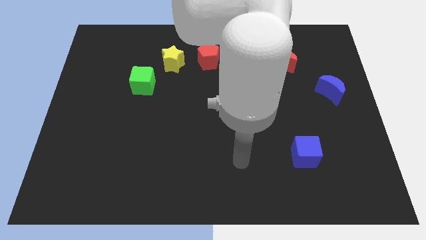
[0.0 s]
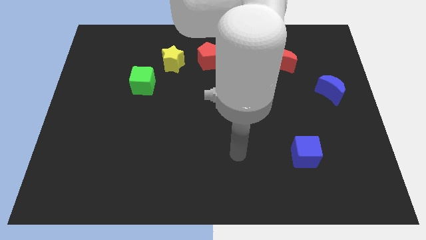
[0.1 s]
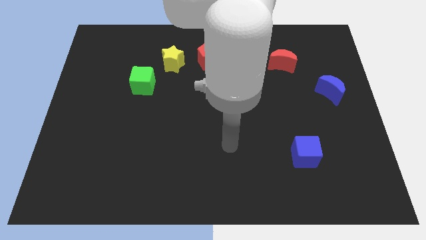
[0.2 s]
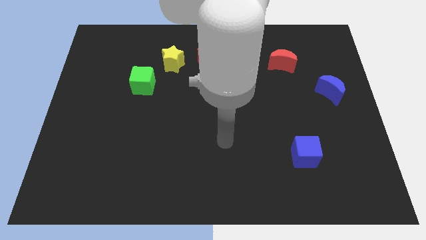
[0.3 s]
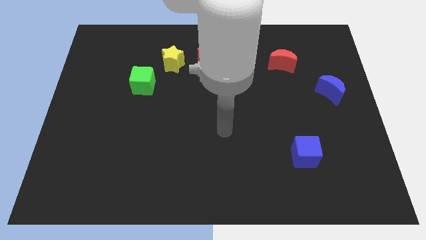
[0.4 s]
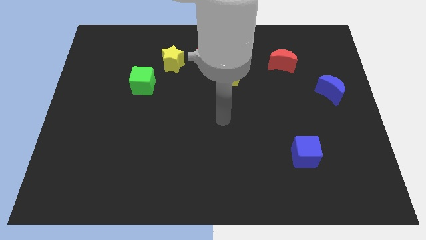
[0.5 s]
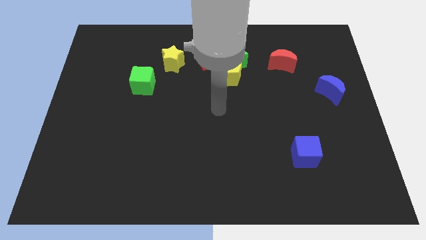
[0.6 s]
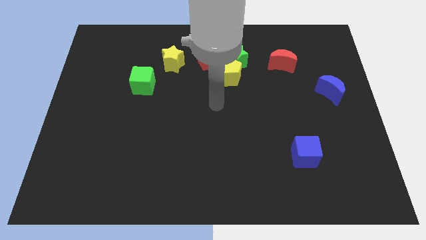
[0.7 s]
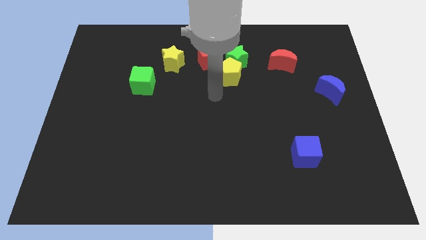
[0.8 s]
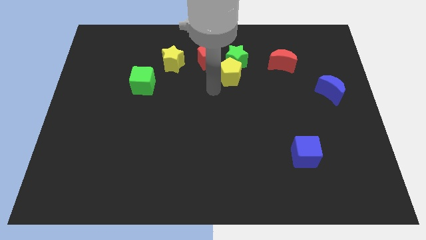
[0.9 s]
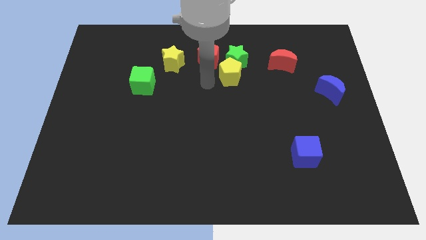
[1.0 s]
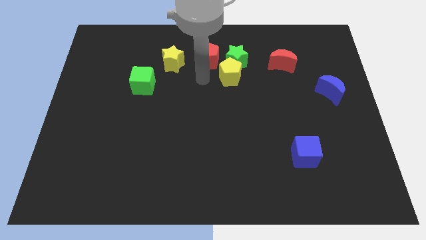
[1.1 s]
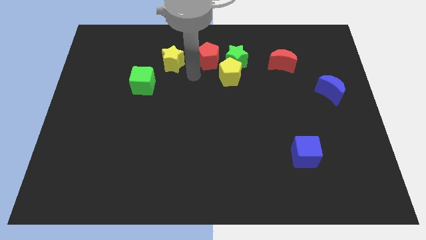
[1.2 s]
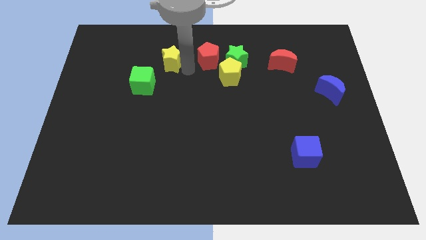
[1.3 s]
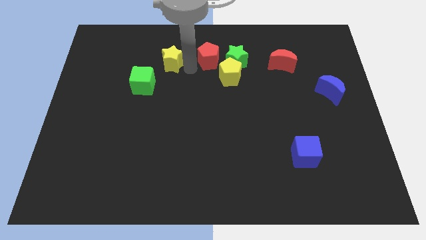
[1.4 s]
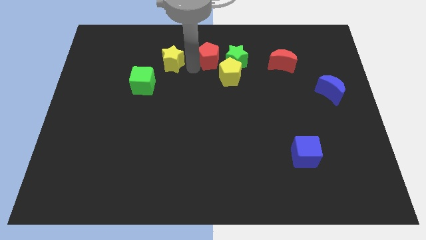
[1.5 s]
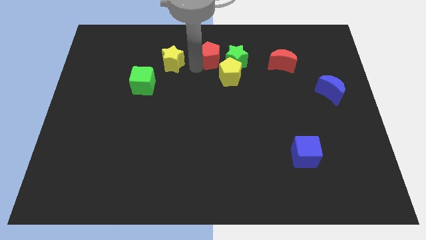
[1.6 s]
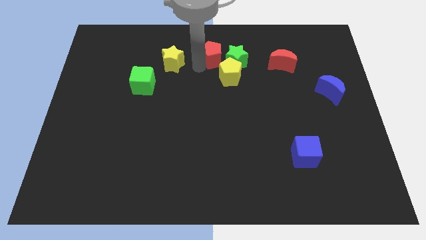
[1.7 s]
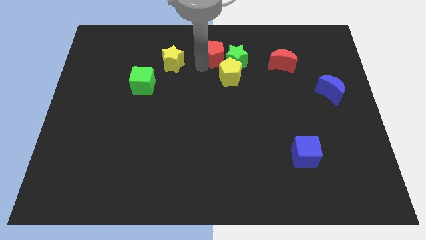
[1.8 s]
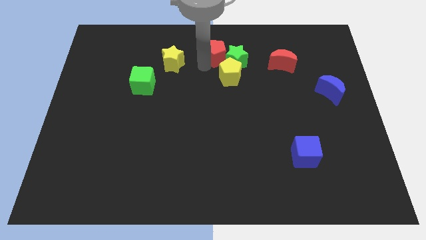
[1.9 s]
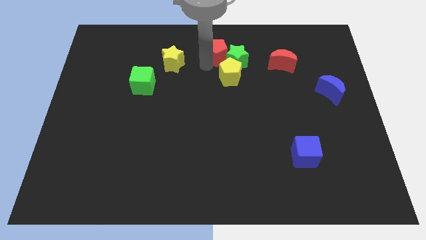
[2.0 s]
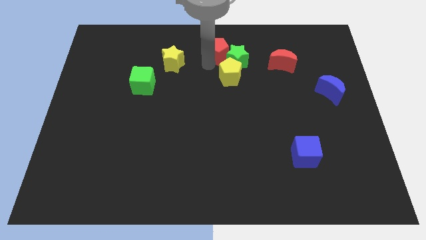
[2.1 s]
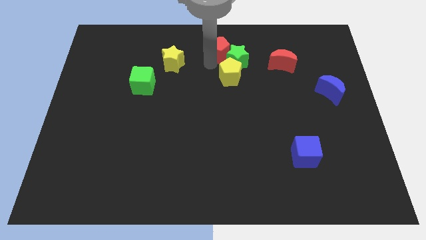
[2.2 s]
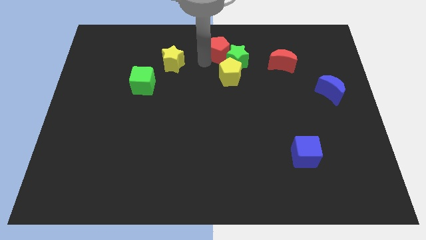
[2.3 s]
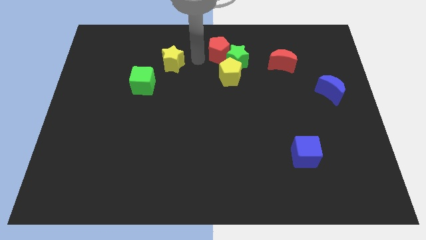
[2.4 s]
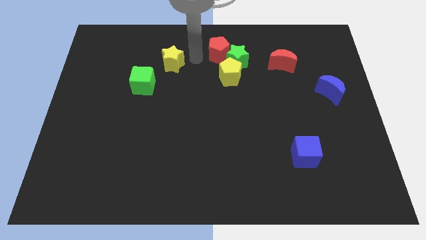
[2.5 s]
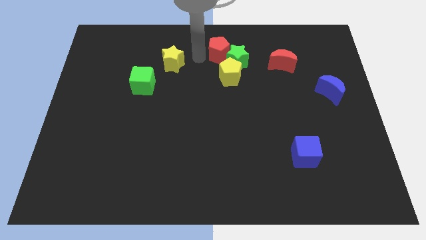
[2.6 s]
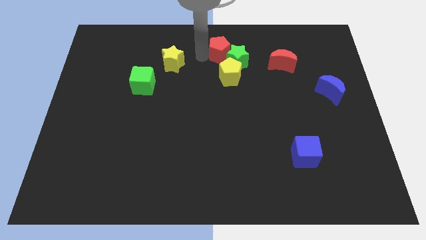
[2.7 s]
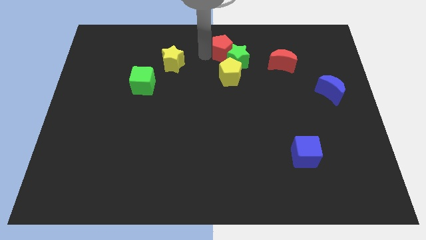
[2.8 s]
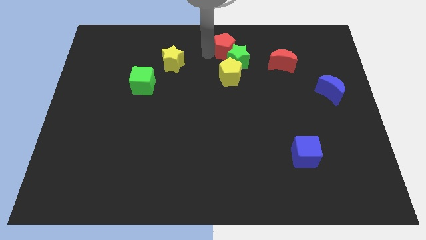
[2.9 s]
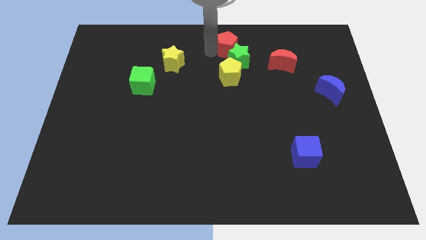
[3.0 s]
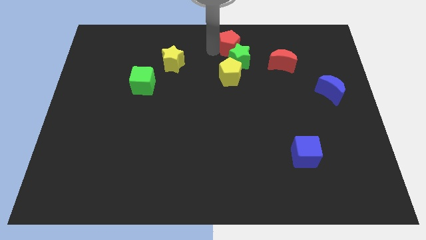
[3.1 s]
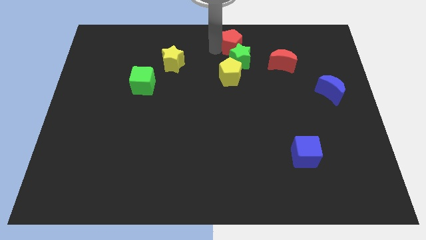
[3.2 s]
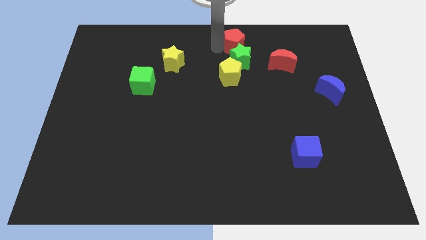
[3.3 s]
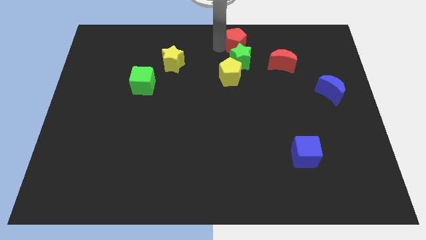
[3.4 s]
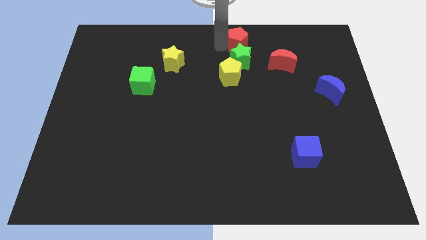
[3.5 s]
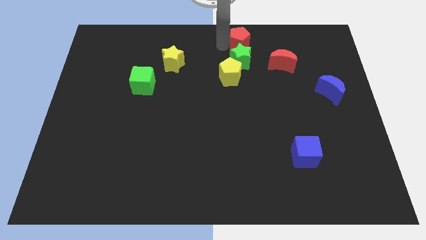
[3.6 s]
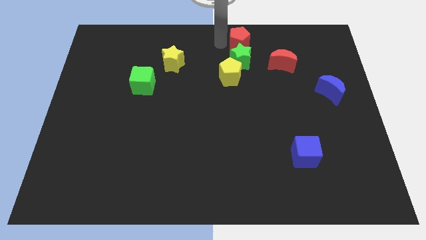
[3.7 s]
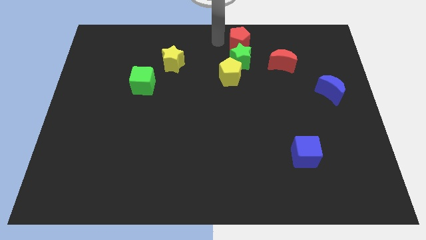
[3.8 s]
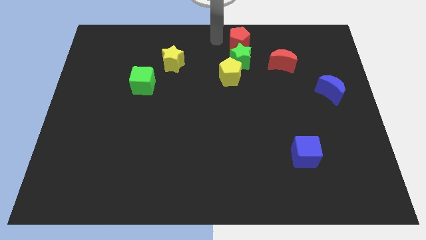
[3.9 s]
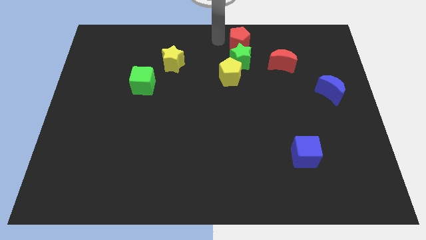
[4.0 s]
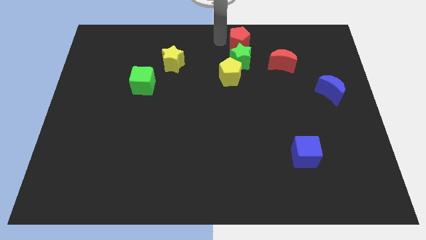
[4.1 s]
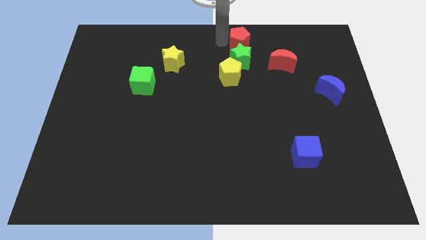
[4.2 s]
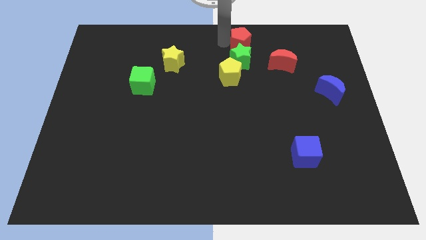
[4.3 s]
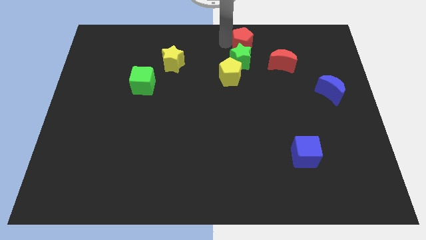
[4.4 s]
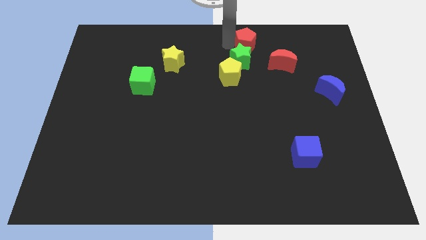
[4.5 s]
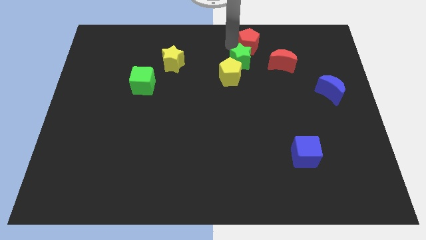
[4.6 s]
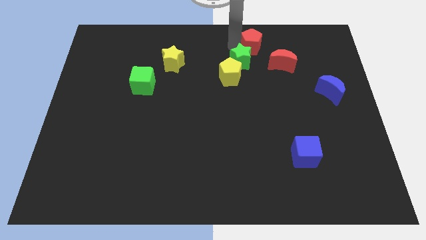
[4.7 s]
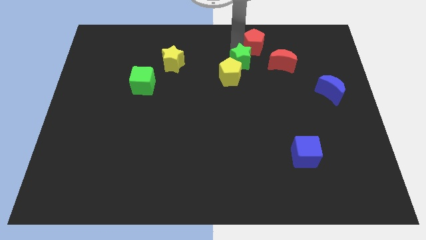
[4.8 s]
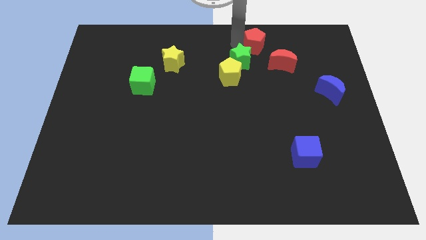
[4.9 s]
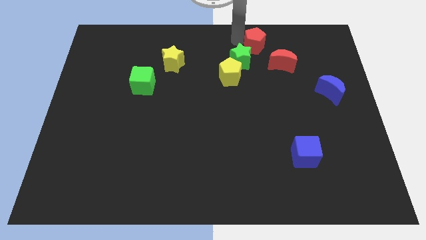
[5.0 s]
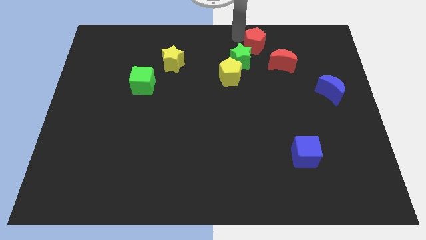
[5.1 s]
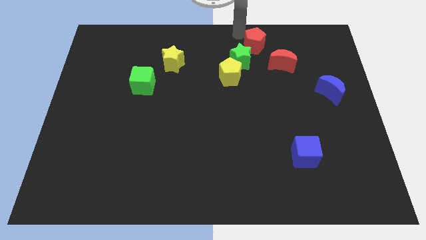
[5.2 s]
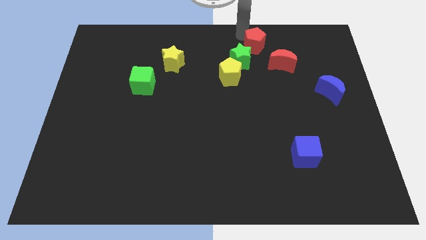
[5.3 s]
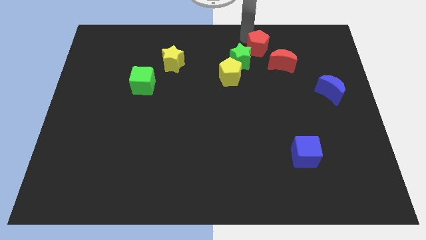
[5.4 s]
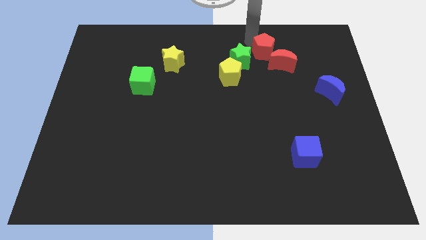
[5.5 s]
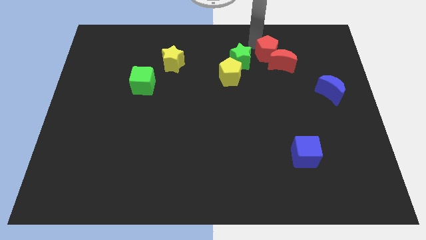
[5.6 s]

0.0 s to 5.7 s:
push the red pentagon to the red moon

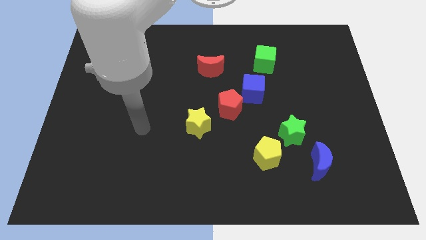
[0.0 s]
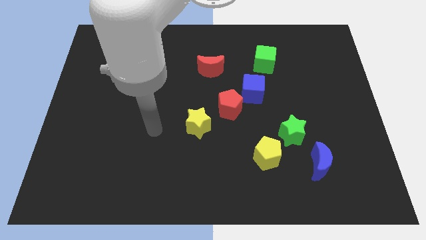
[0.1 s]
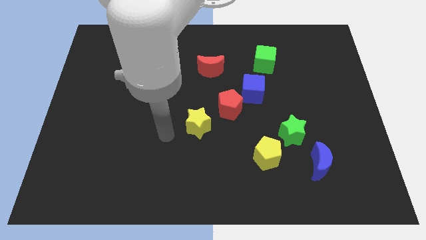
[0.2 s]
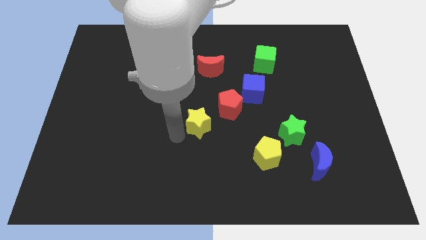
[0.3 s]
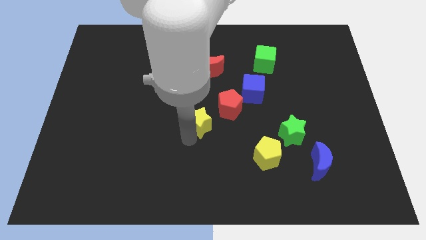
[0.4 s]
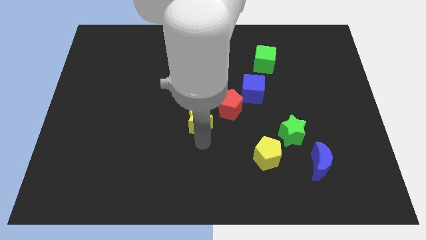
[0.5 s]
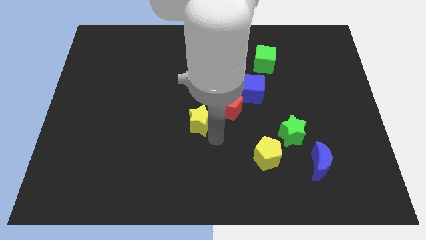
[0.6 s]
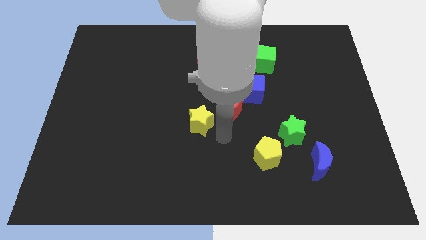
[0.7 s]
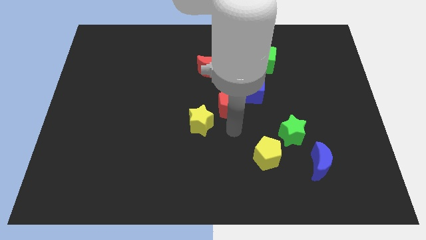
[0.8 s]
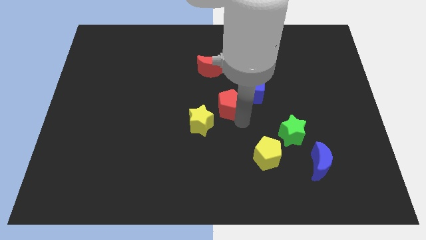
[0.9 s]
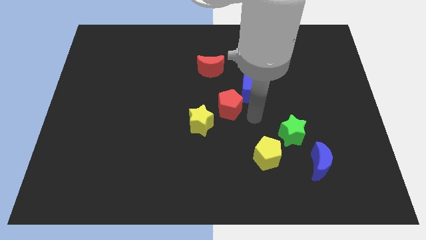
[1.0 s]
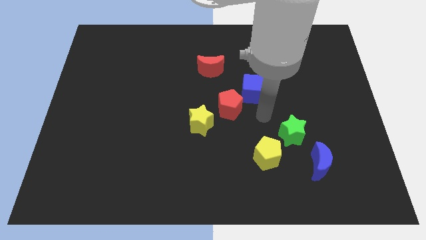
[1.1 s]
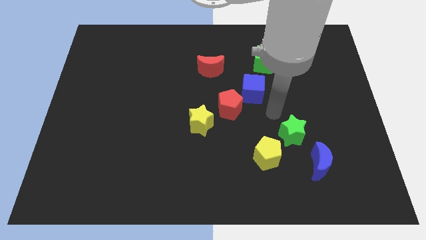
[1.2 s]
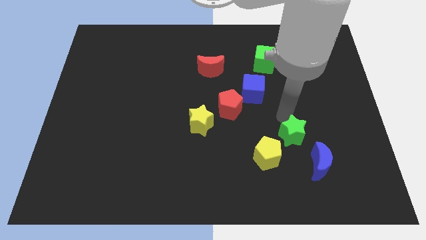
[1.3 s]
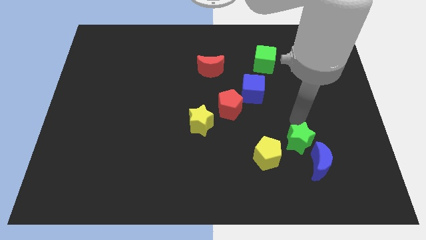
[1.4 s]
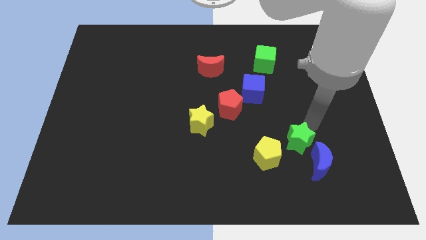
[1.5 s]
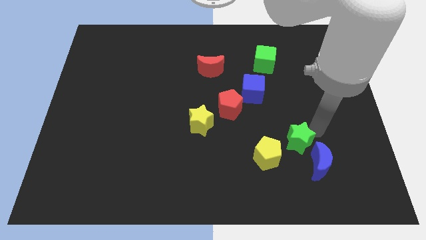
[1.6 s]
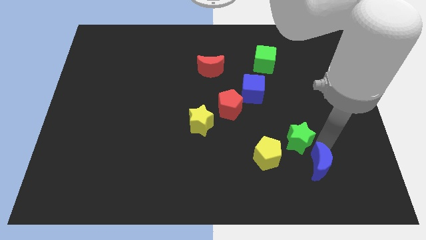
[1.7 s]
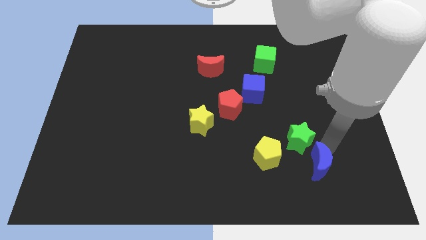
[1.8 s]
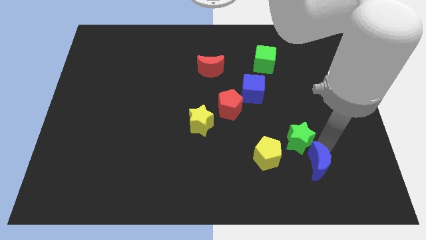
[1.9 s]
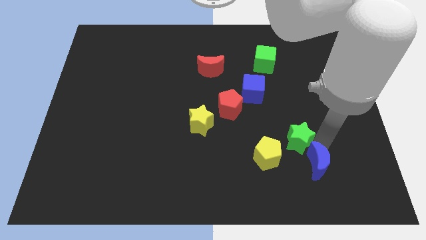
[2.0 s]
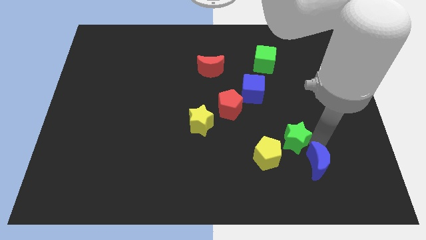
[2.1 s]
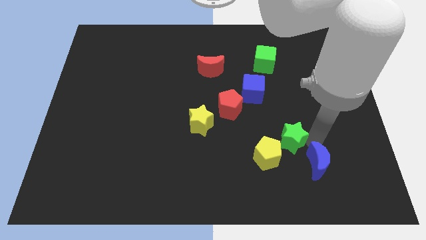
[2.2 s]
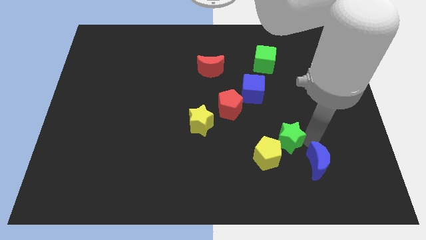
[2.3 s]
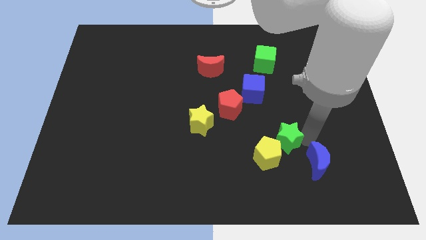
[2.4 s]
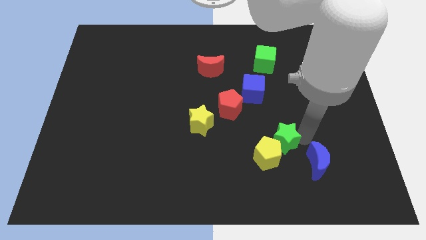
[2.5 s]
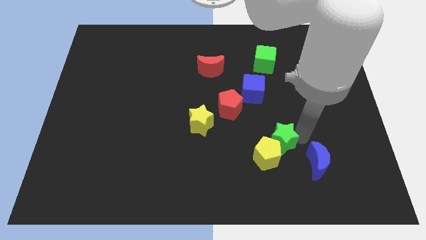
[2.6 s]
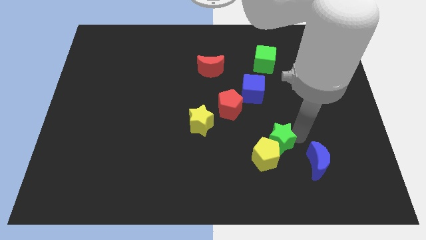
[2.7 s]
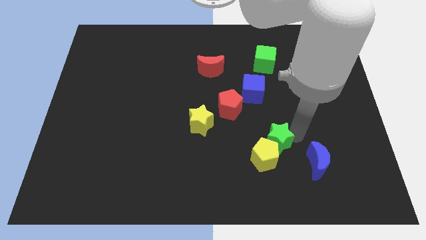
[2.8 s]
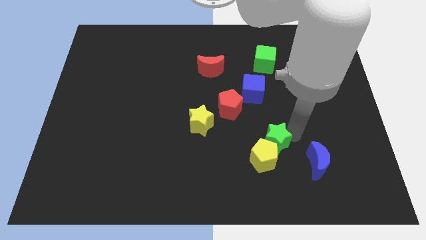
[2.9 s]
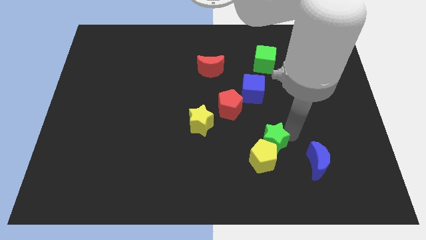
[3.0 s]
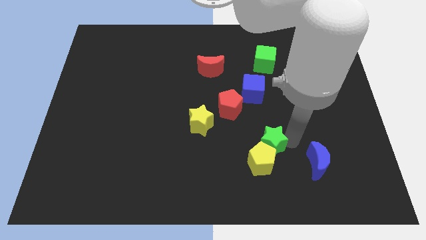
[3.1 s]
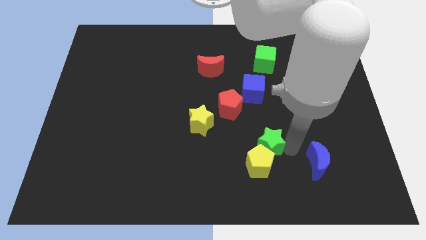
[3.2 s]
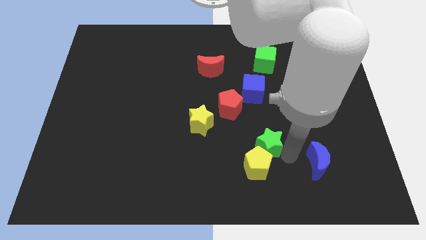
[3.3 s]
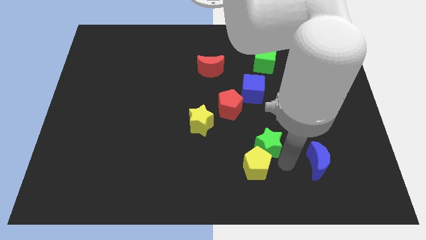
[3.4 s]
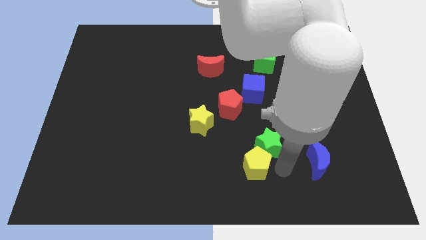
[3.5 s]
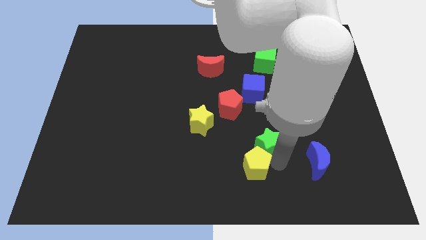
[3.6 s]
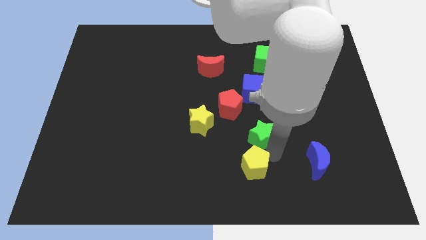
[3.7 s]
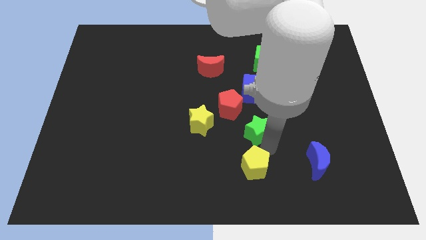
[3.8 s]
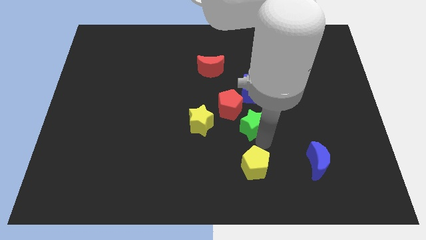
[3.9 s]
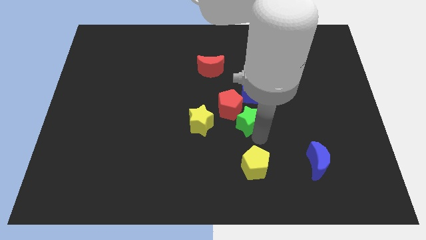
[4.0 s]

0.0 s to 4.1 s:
move the green star close to the red pentagon
